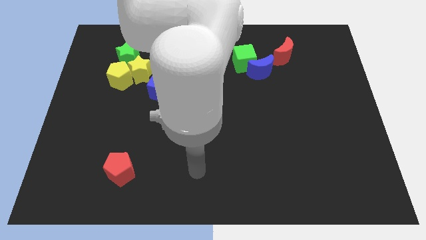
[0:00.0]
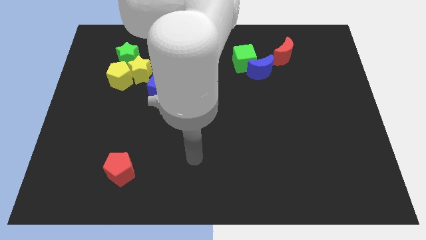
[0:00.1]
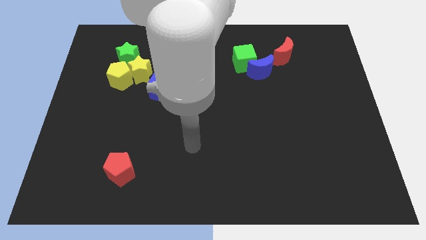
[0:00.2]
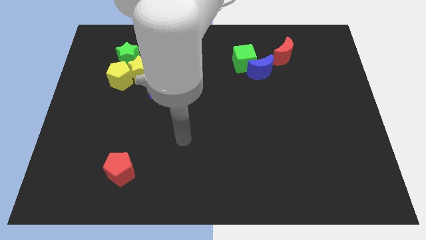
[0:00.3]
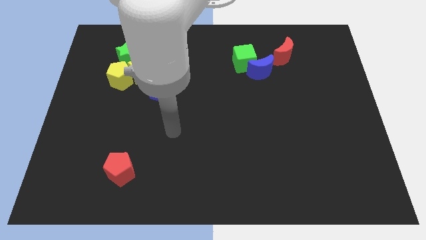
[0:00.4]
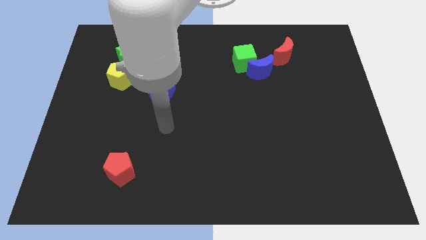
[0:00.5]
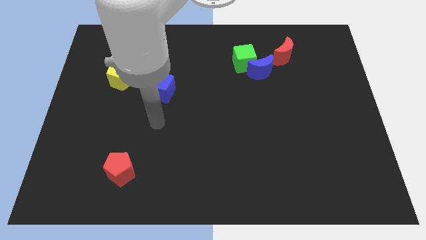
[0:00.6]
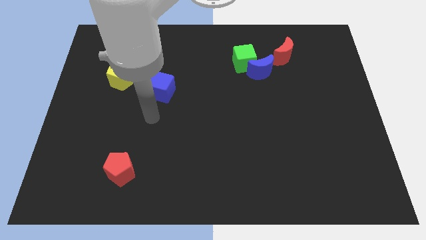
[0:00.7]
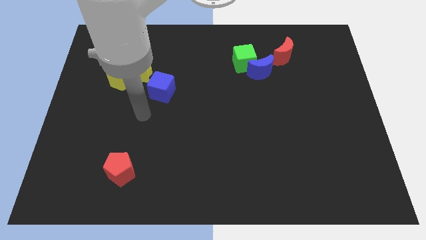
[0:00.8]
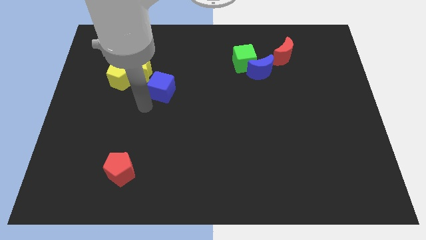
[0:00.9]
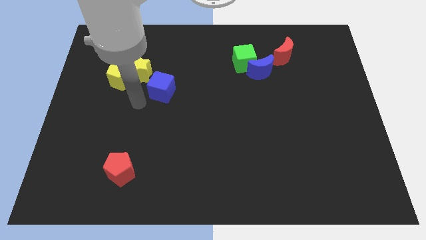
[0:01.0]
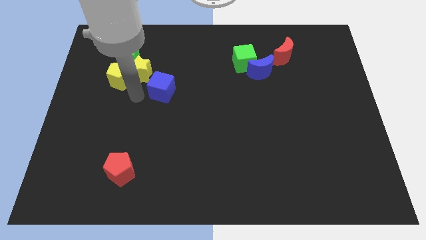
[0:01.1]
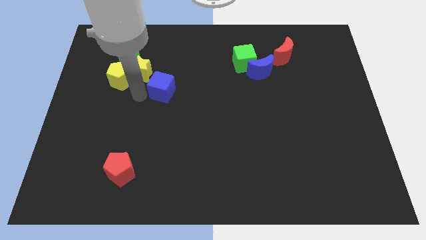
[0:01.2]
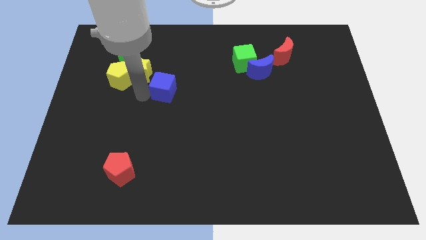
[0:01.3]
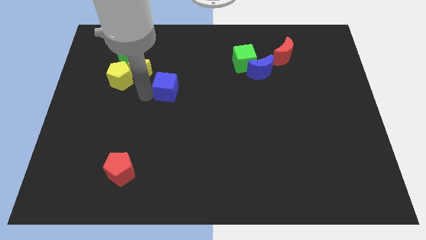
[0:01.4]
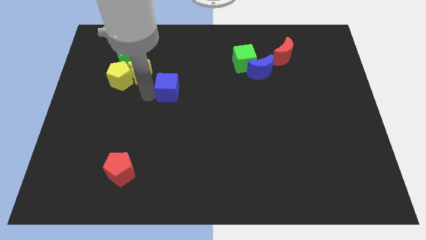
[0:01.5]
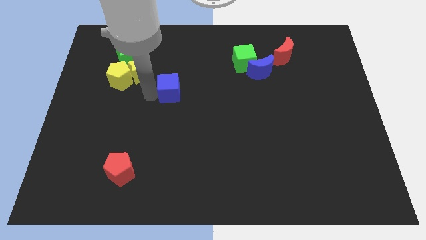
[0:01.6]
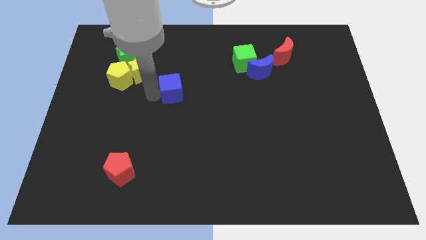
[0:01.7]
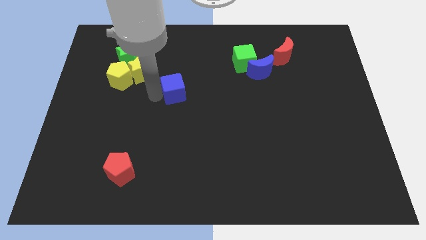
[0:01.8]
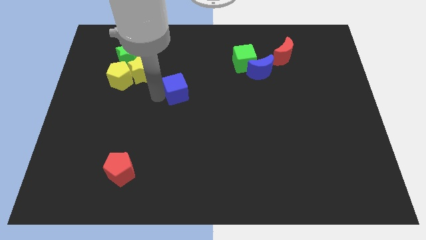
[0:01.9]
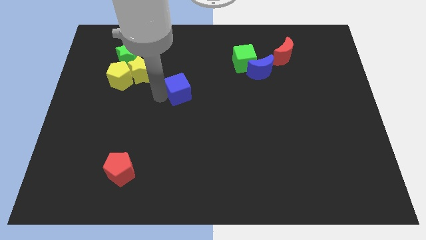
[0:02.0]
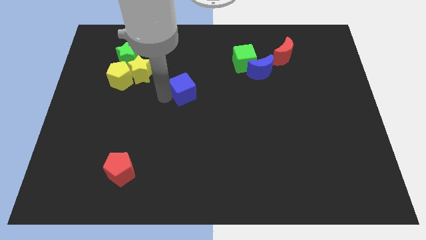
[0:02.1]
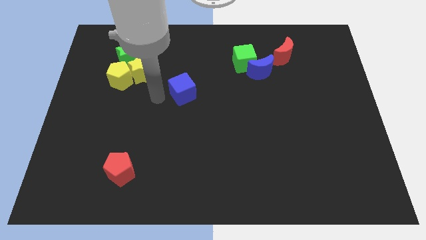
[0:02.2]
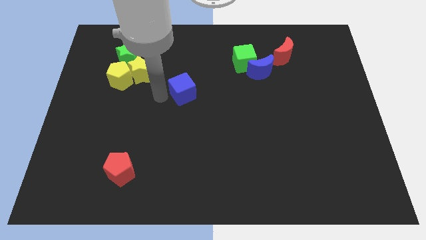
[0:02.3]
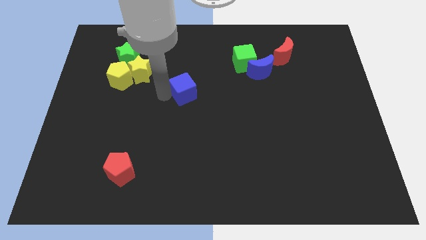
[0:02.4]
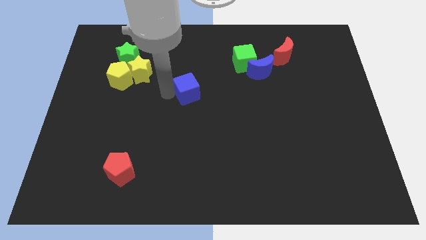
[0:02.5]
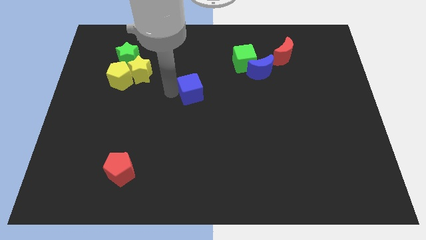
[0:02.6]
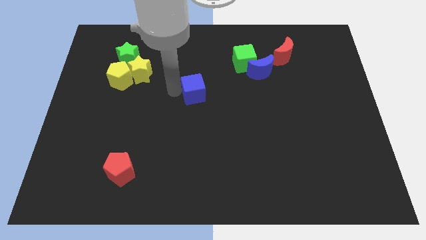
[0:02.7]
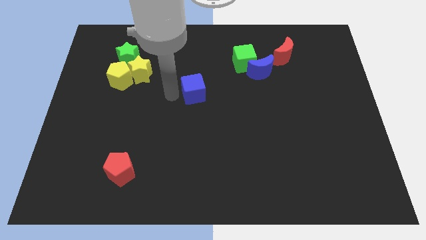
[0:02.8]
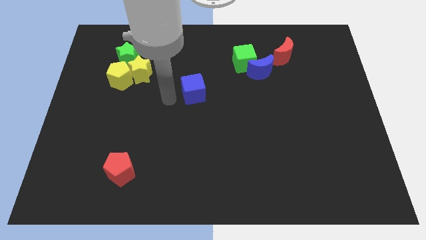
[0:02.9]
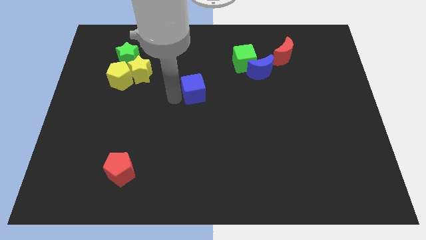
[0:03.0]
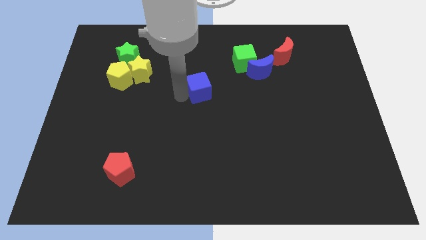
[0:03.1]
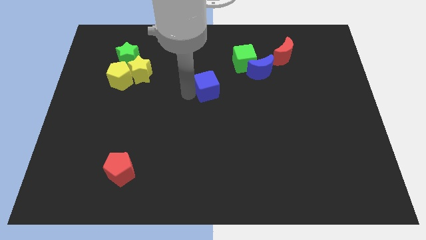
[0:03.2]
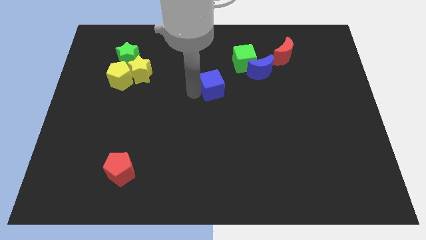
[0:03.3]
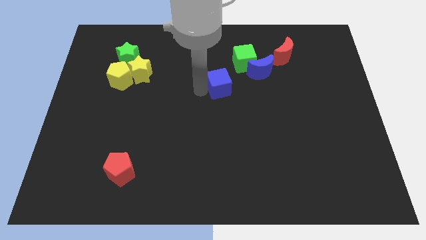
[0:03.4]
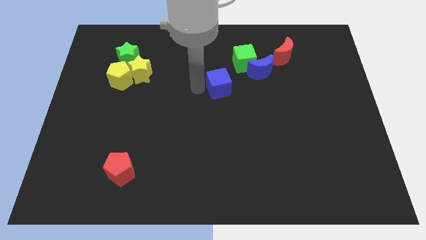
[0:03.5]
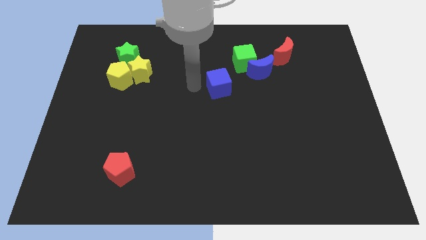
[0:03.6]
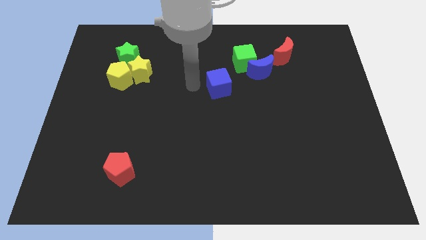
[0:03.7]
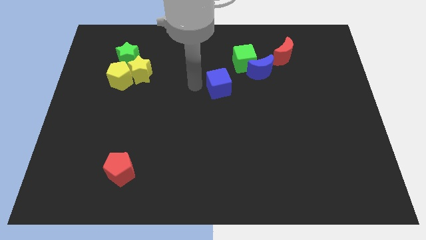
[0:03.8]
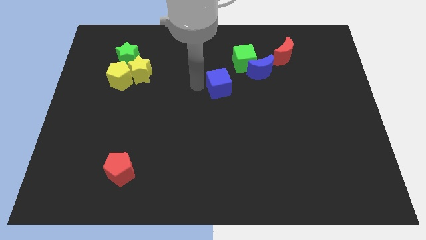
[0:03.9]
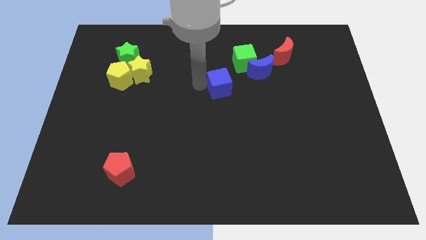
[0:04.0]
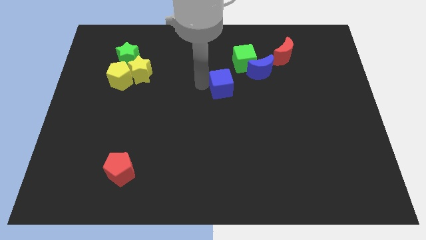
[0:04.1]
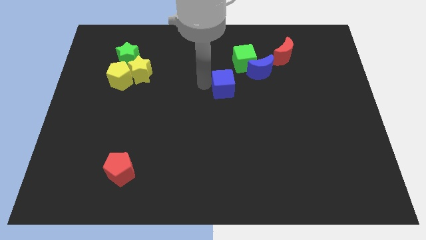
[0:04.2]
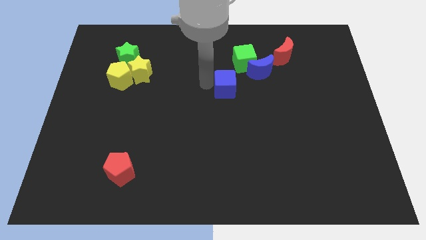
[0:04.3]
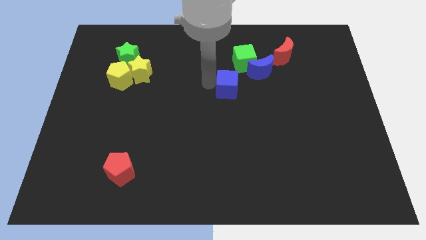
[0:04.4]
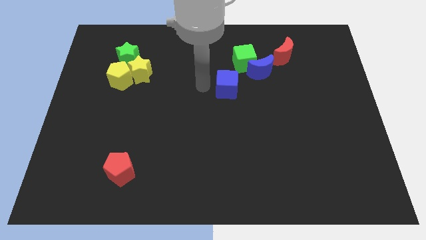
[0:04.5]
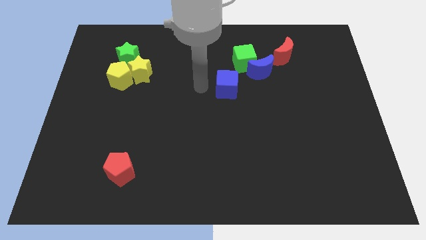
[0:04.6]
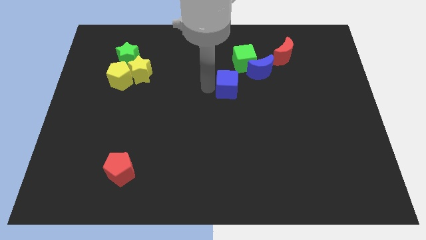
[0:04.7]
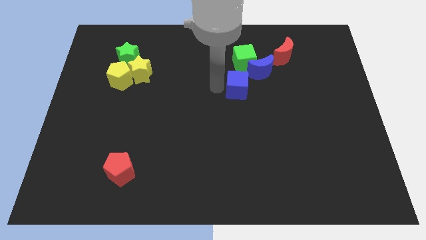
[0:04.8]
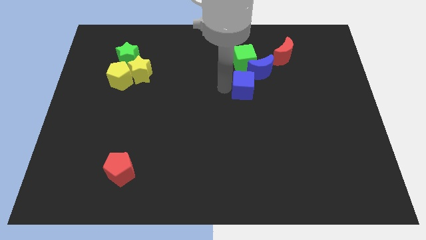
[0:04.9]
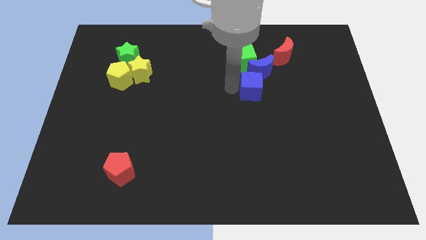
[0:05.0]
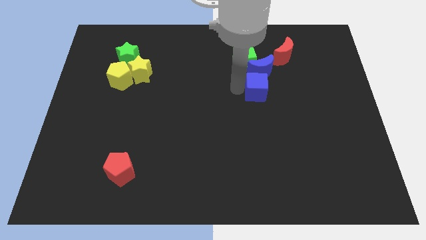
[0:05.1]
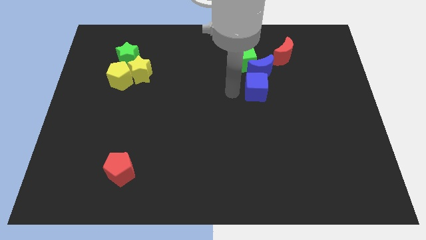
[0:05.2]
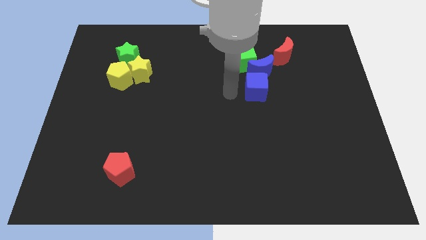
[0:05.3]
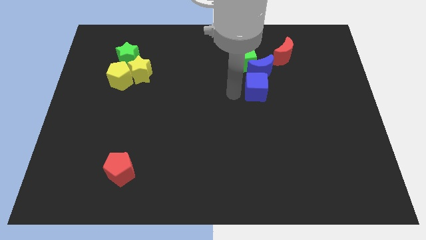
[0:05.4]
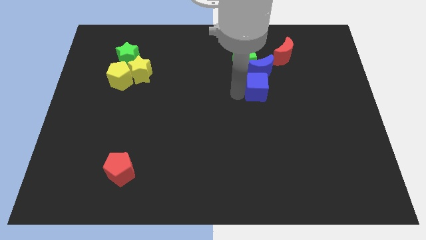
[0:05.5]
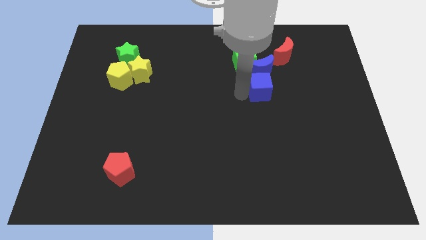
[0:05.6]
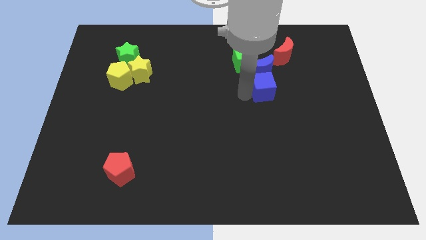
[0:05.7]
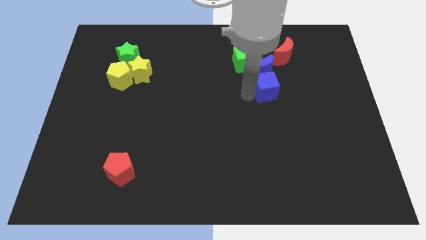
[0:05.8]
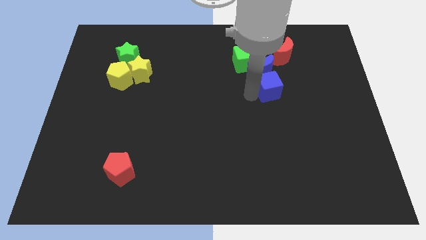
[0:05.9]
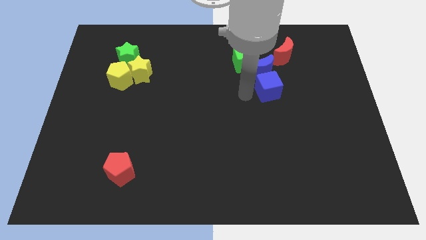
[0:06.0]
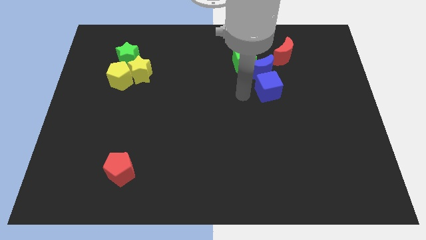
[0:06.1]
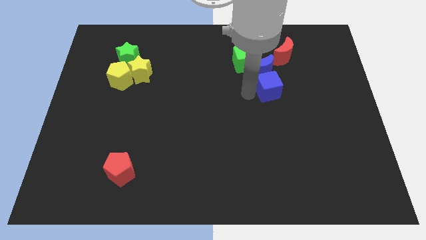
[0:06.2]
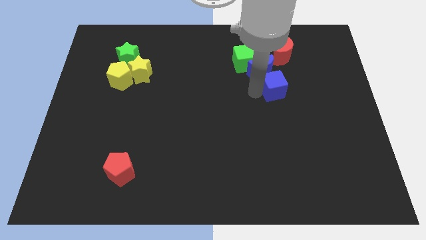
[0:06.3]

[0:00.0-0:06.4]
slide the blue cube to the bottom side of the red moon

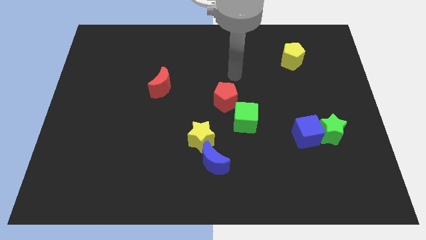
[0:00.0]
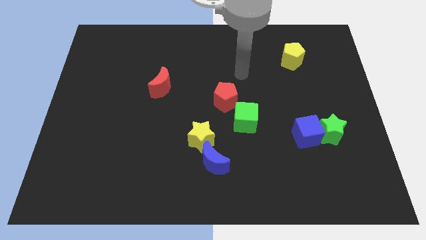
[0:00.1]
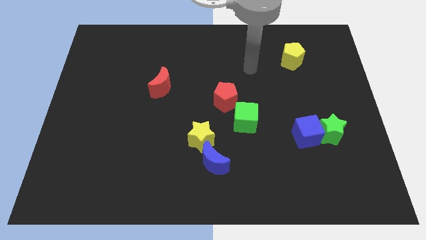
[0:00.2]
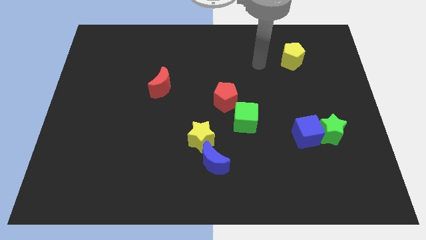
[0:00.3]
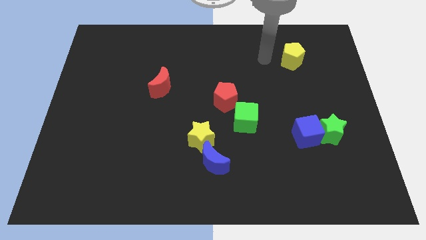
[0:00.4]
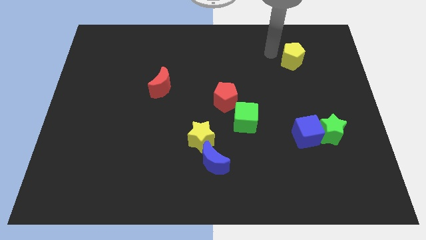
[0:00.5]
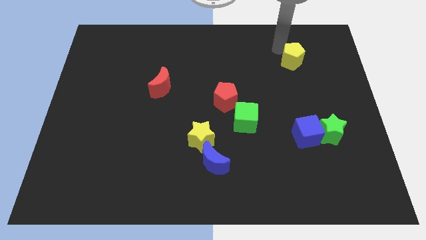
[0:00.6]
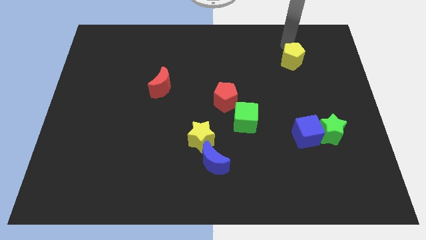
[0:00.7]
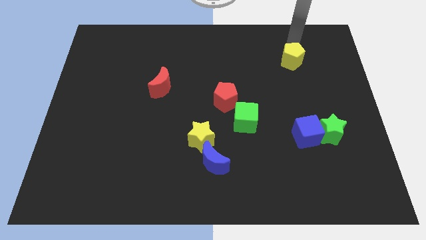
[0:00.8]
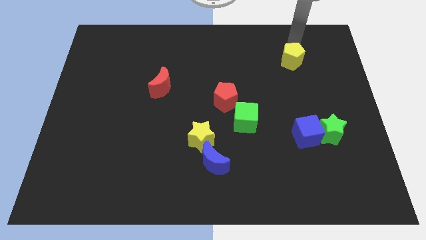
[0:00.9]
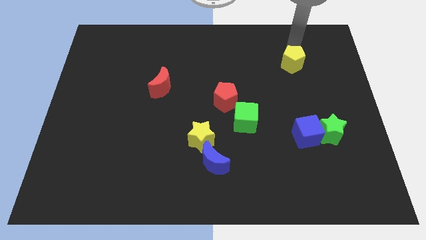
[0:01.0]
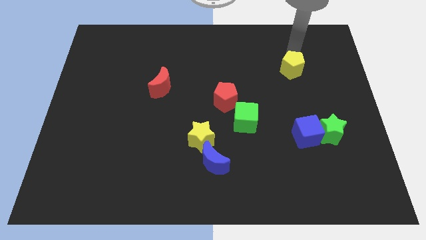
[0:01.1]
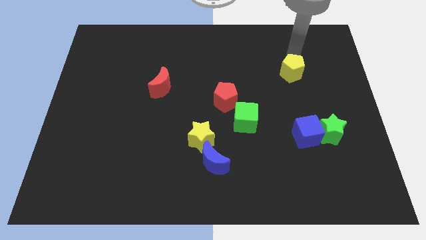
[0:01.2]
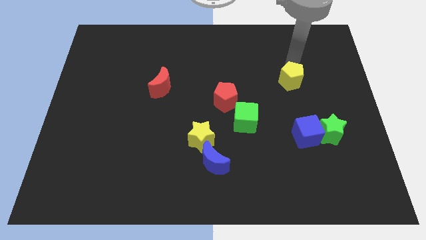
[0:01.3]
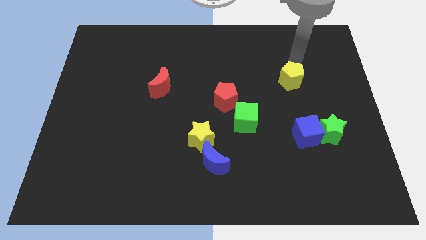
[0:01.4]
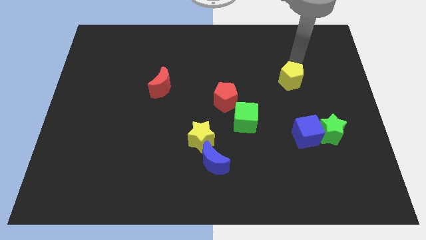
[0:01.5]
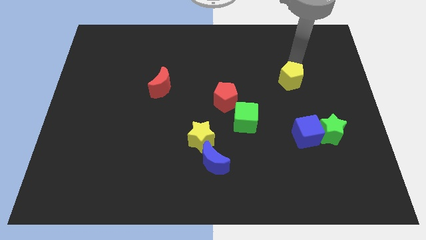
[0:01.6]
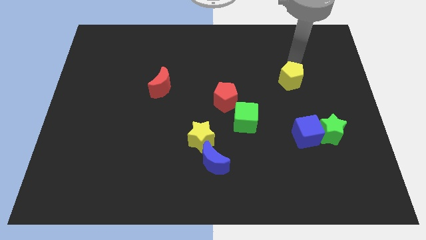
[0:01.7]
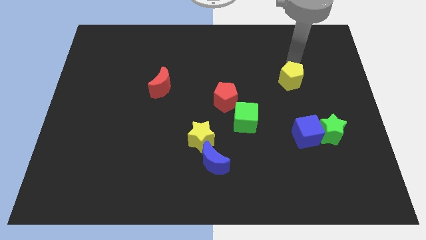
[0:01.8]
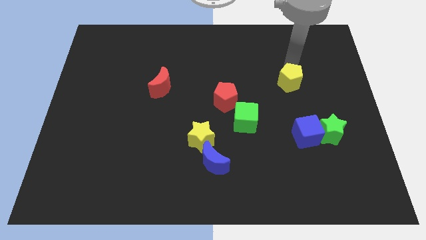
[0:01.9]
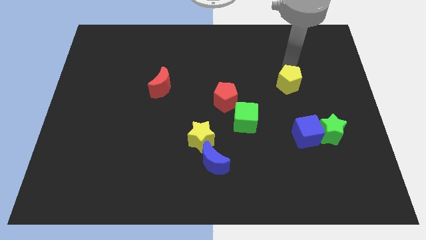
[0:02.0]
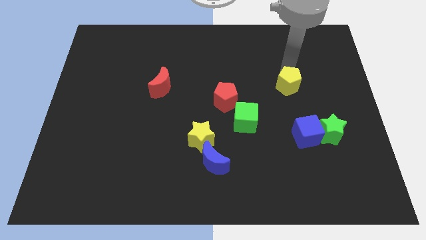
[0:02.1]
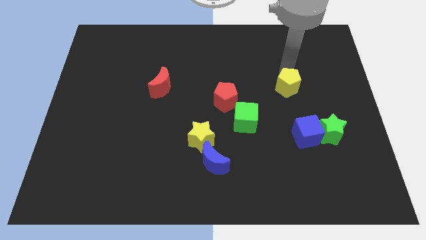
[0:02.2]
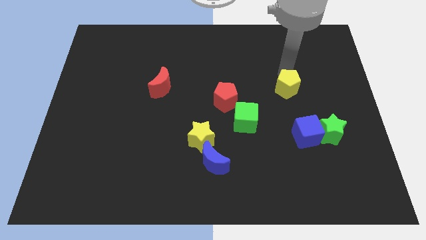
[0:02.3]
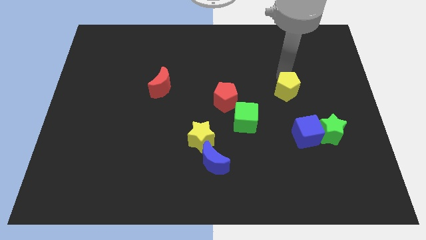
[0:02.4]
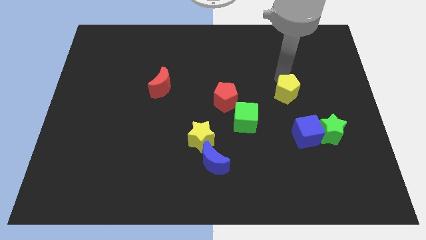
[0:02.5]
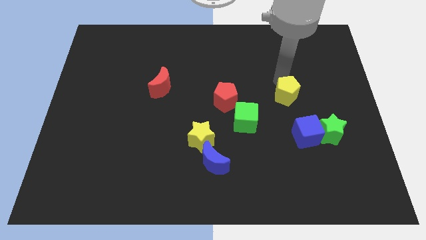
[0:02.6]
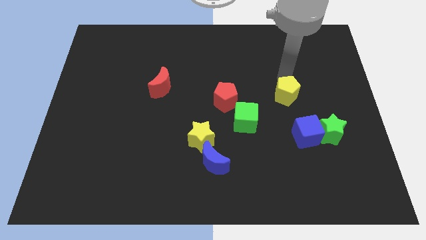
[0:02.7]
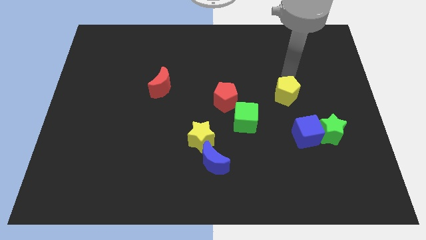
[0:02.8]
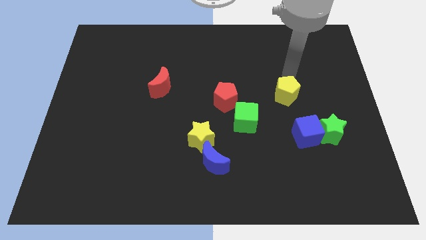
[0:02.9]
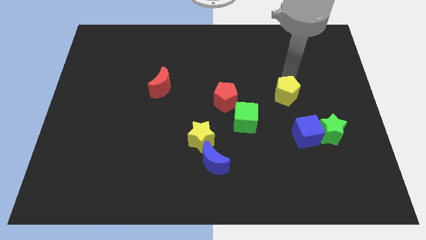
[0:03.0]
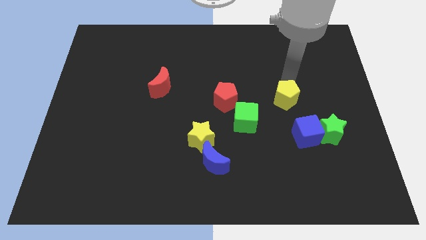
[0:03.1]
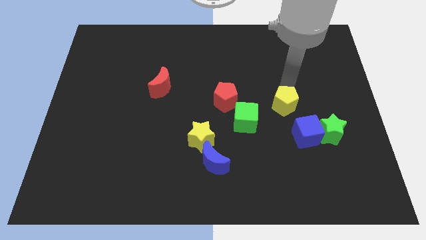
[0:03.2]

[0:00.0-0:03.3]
push the yellow pentagon diagonally up and to the left of the blue cube
